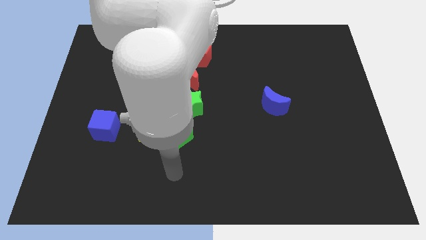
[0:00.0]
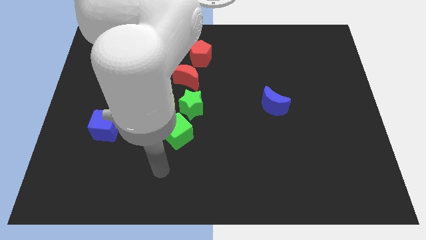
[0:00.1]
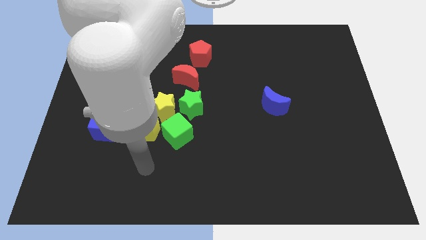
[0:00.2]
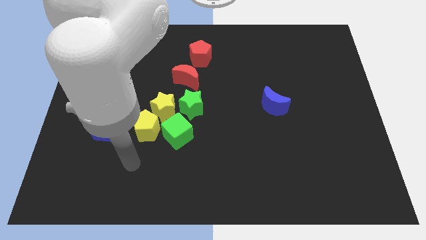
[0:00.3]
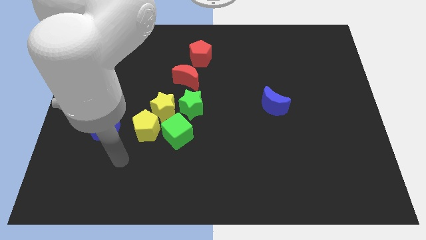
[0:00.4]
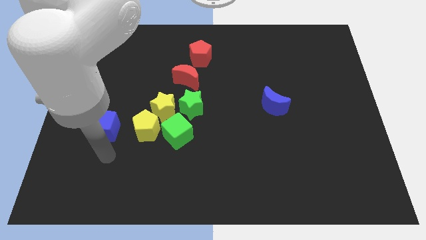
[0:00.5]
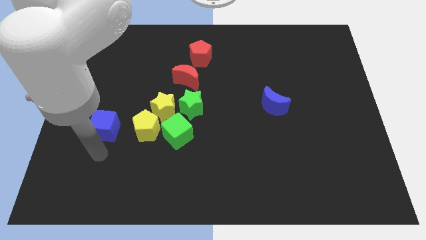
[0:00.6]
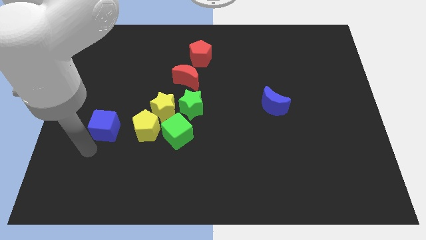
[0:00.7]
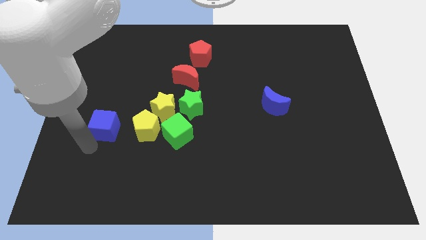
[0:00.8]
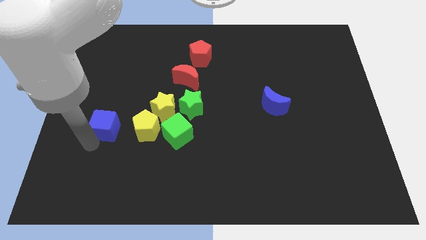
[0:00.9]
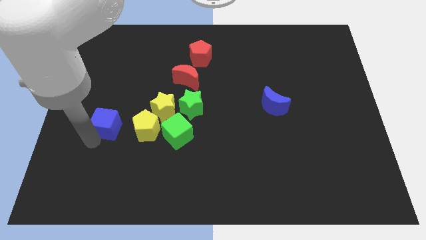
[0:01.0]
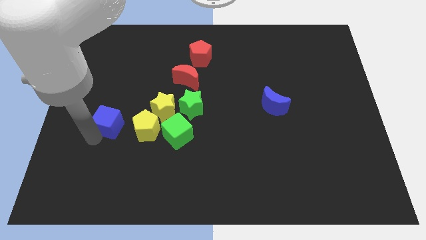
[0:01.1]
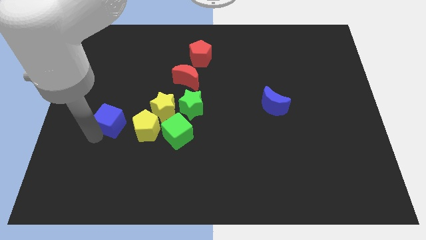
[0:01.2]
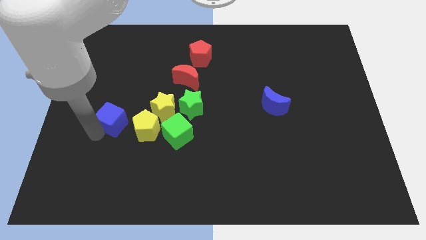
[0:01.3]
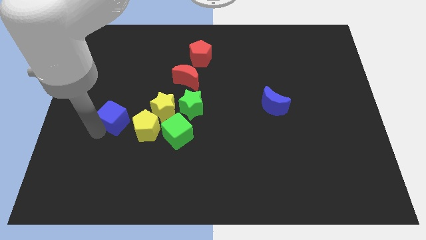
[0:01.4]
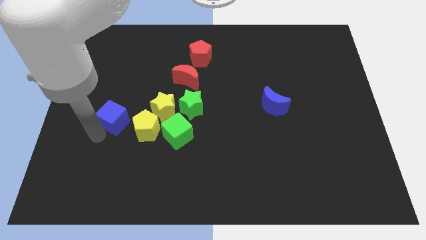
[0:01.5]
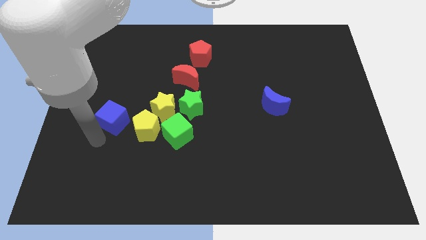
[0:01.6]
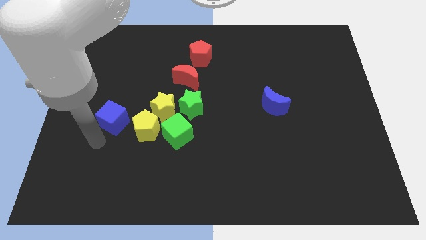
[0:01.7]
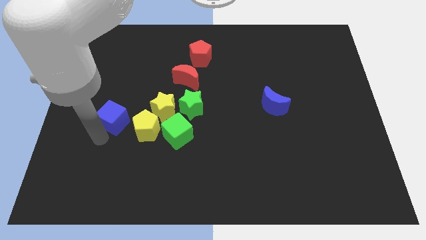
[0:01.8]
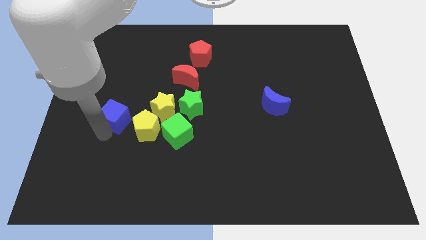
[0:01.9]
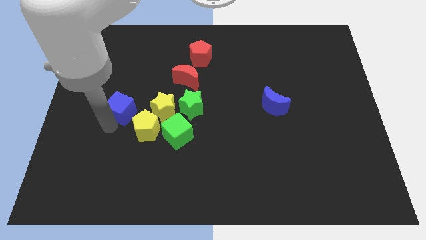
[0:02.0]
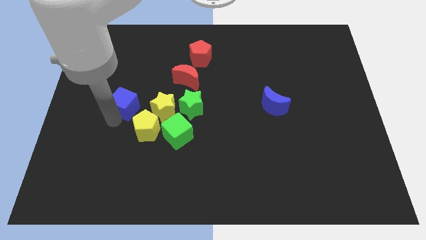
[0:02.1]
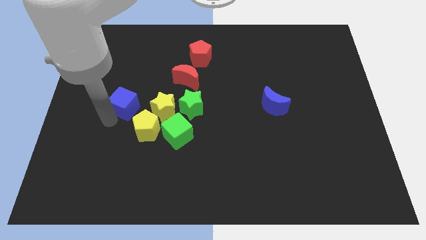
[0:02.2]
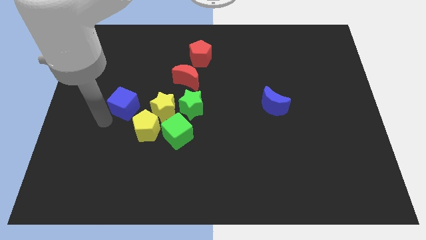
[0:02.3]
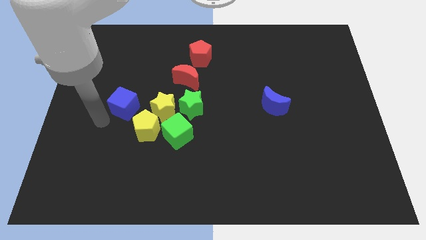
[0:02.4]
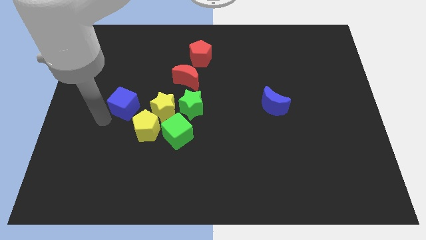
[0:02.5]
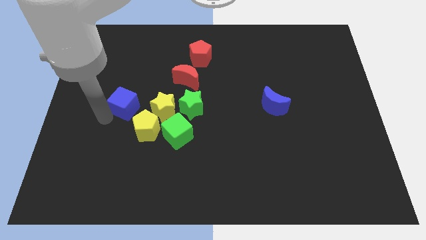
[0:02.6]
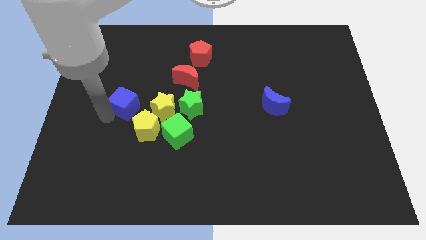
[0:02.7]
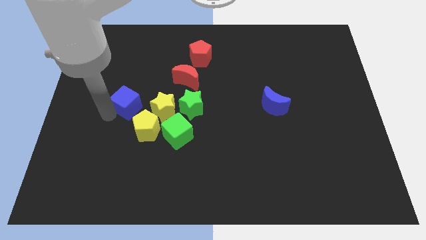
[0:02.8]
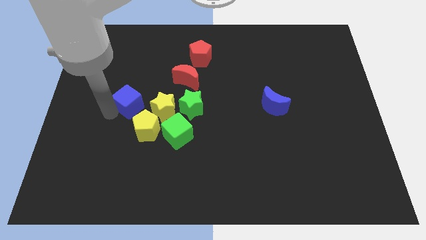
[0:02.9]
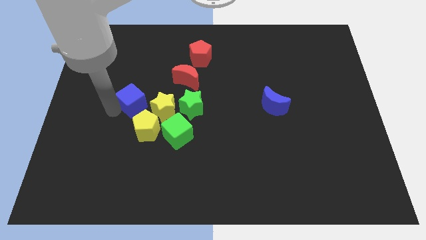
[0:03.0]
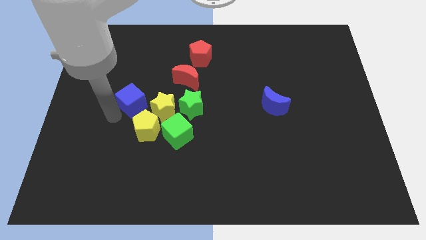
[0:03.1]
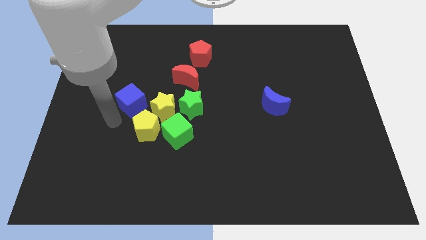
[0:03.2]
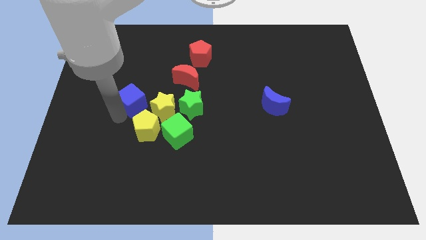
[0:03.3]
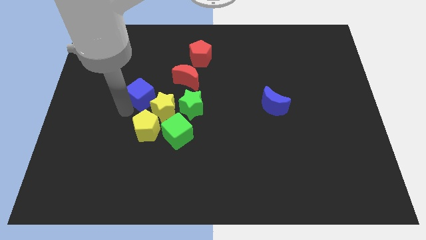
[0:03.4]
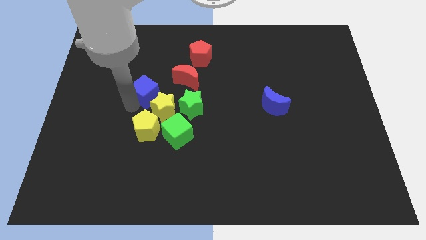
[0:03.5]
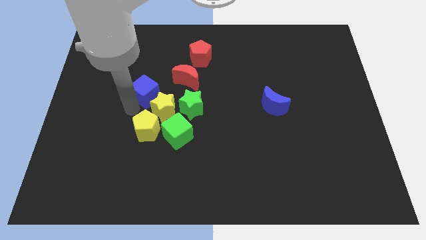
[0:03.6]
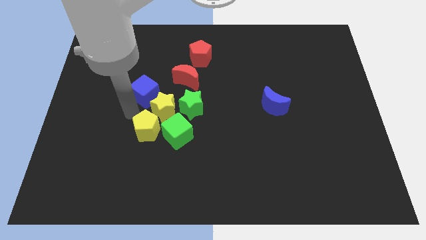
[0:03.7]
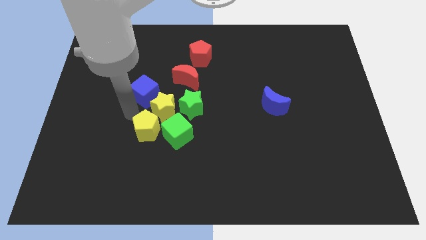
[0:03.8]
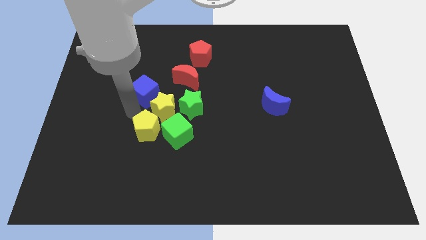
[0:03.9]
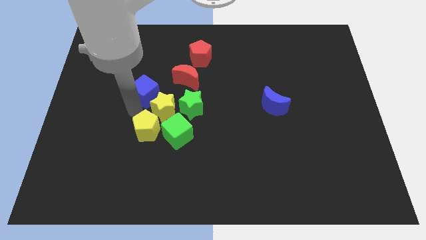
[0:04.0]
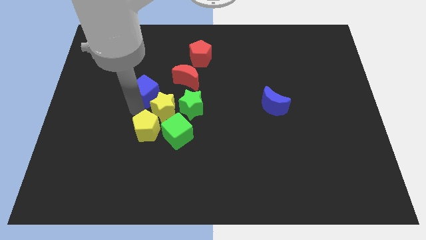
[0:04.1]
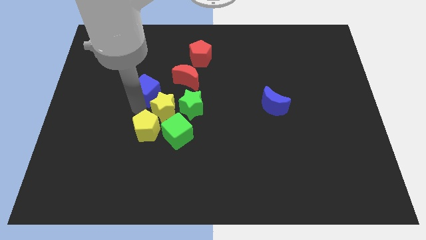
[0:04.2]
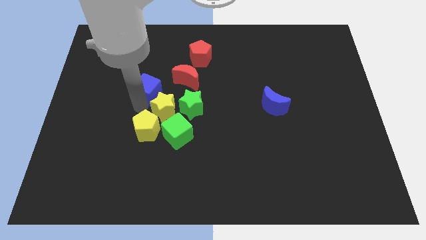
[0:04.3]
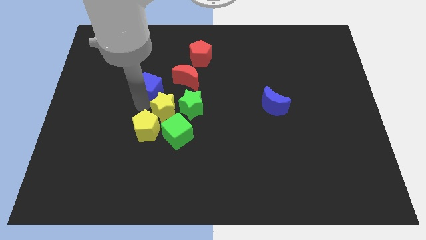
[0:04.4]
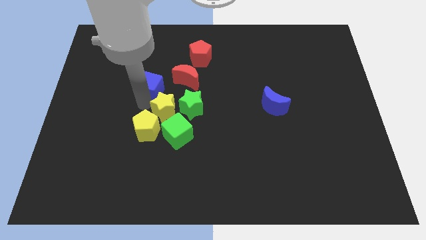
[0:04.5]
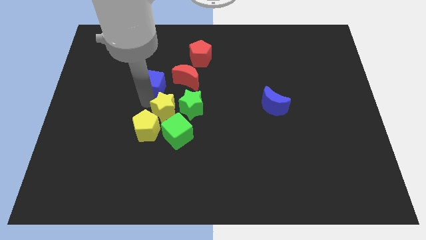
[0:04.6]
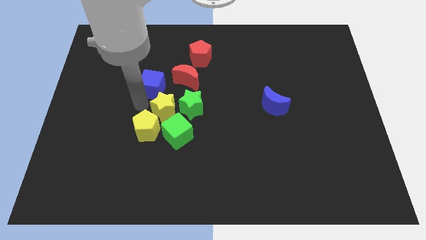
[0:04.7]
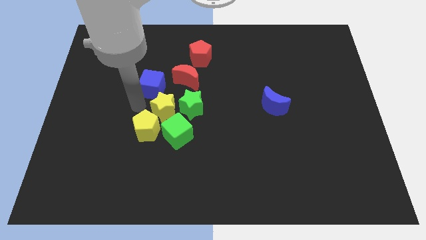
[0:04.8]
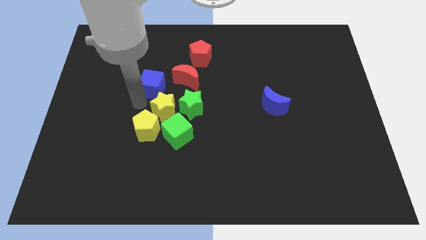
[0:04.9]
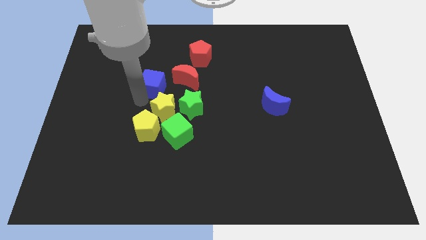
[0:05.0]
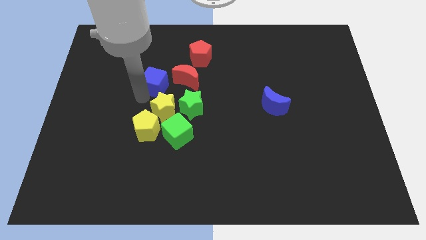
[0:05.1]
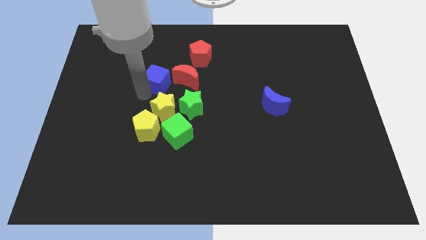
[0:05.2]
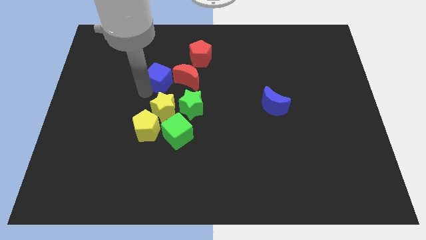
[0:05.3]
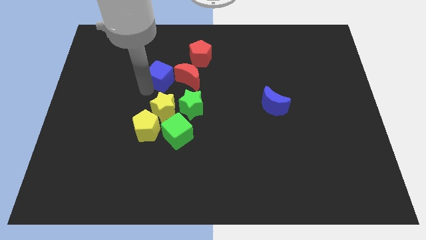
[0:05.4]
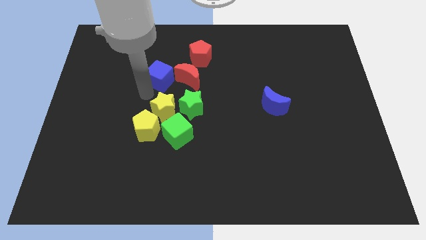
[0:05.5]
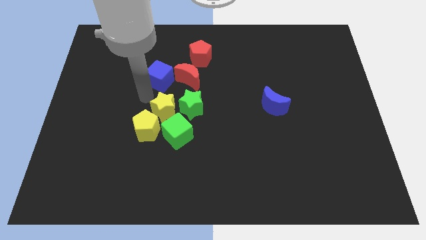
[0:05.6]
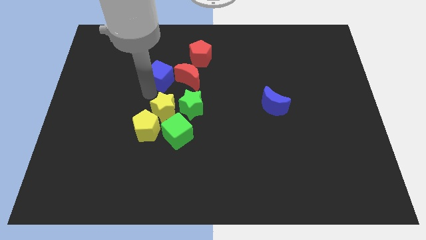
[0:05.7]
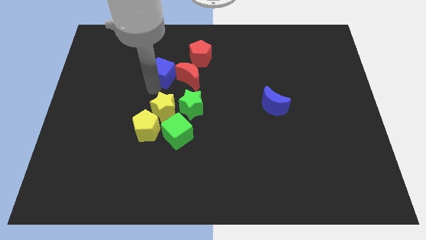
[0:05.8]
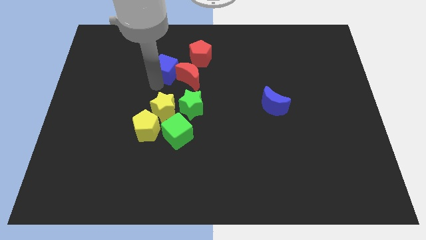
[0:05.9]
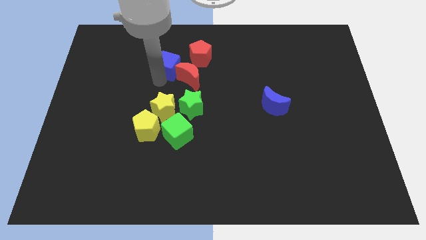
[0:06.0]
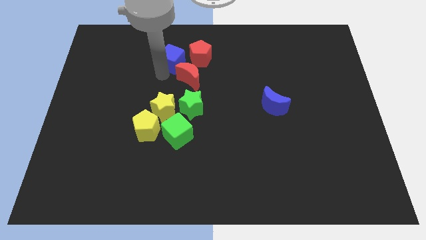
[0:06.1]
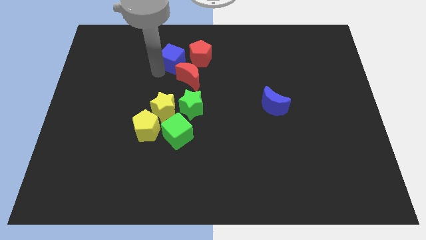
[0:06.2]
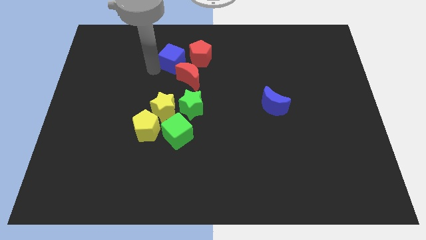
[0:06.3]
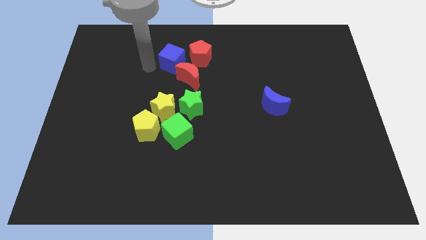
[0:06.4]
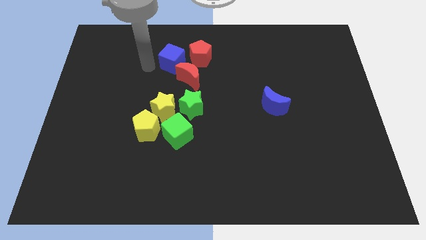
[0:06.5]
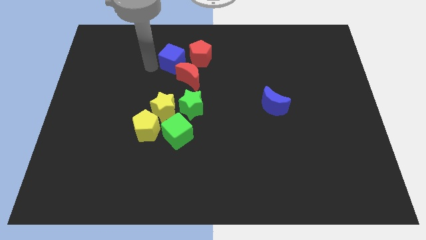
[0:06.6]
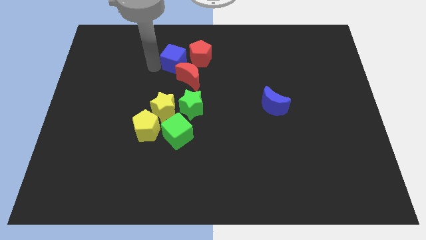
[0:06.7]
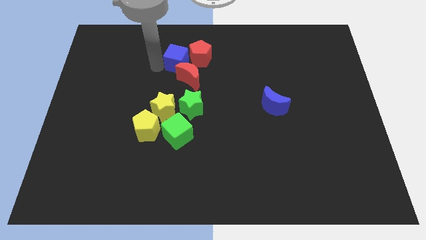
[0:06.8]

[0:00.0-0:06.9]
slide the blue cube to the red pentagon
